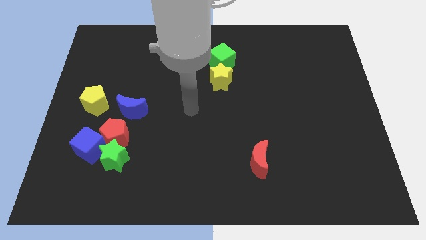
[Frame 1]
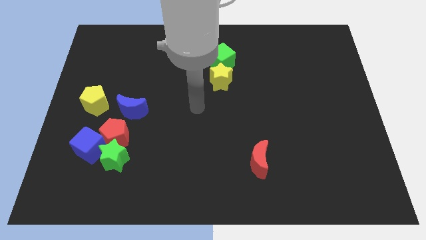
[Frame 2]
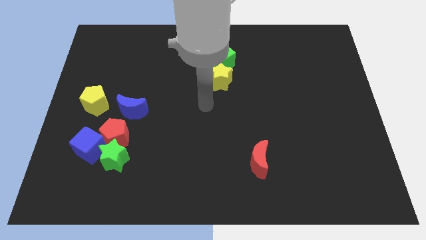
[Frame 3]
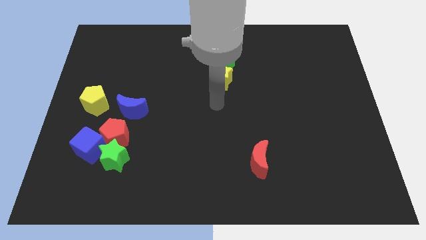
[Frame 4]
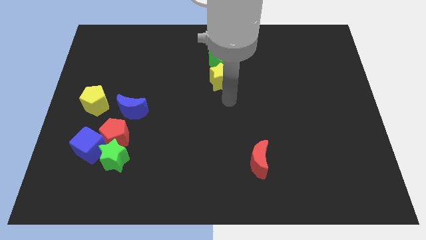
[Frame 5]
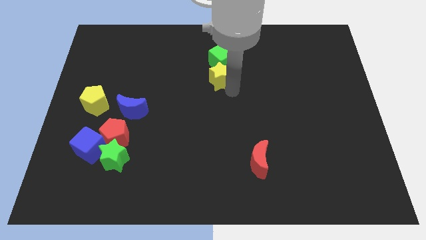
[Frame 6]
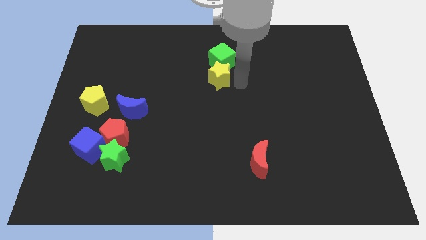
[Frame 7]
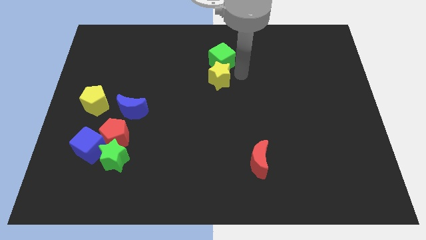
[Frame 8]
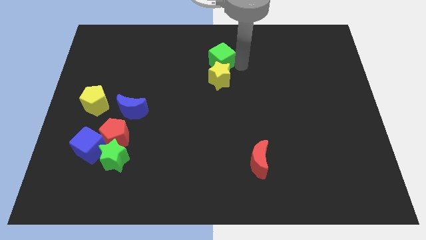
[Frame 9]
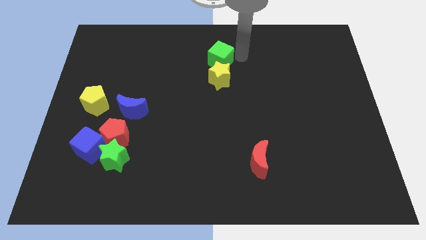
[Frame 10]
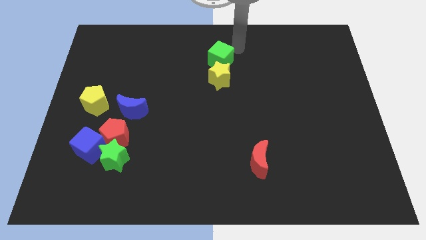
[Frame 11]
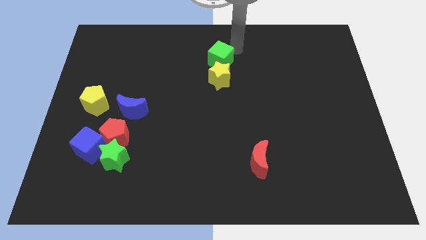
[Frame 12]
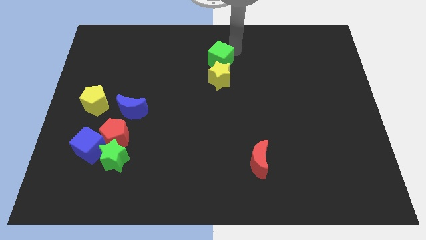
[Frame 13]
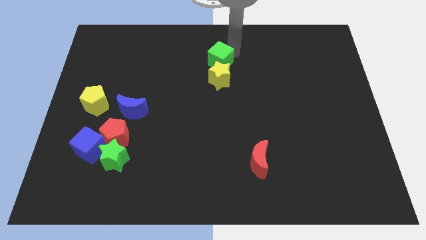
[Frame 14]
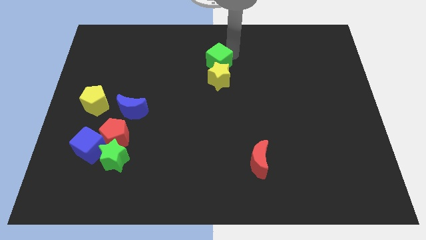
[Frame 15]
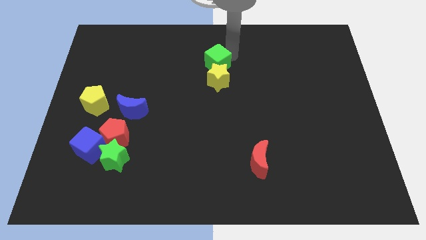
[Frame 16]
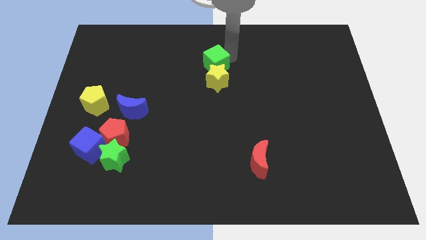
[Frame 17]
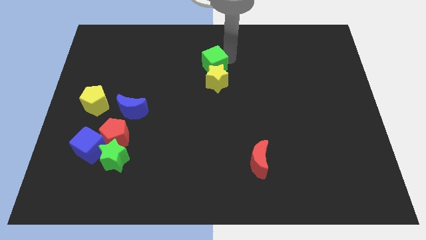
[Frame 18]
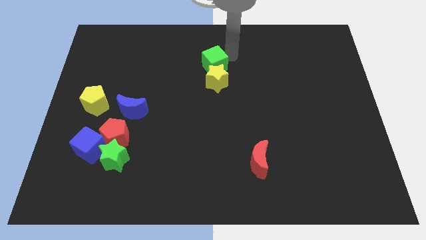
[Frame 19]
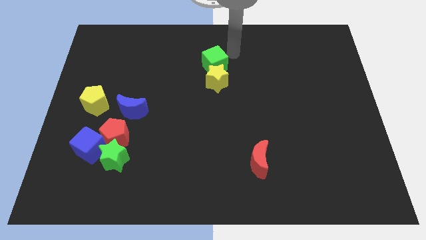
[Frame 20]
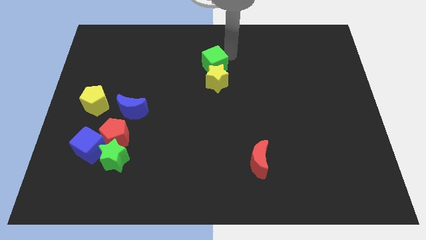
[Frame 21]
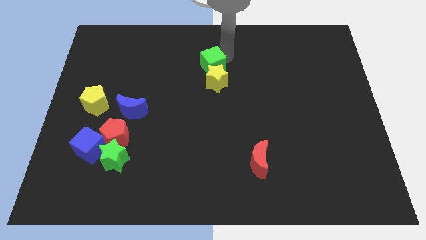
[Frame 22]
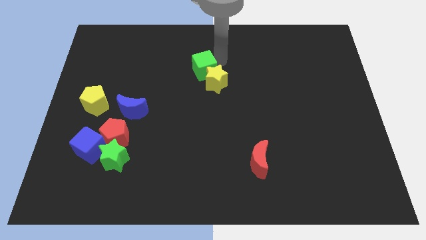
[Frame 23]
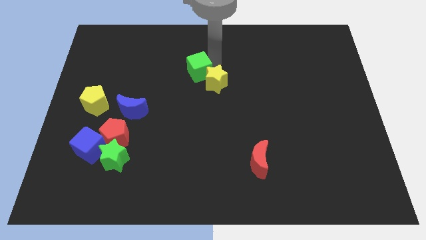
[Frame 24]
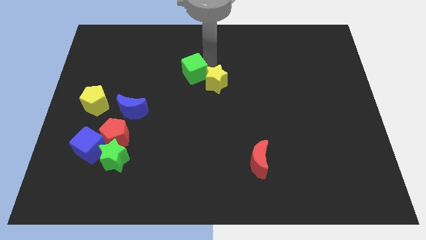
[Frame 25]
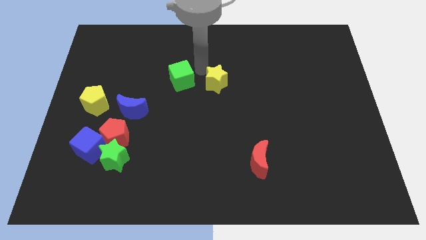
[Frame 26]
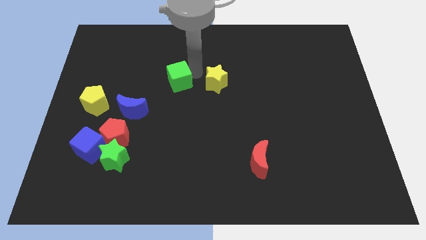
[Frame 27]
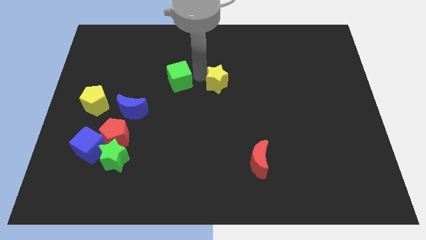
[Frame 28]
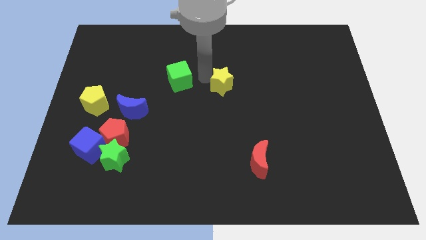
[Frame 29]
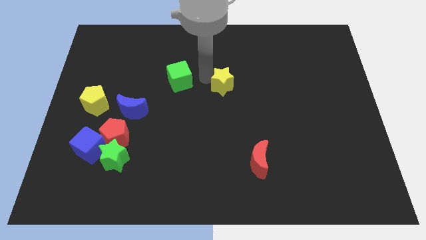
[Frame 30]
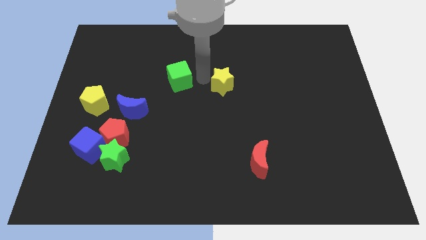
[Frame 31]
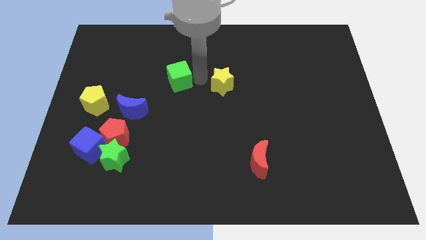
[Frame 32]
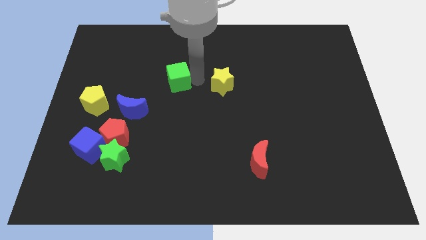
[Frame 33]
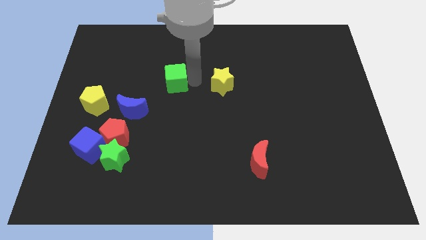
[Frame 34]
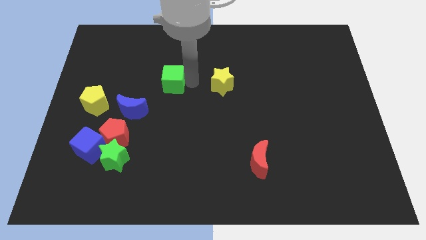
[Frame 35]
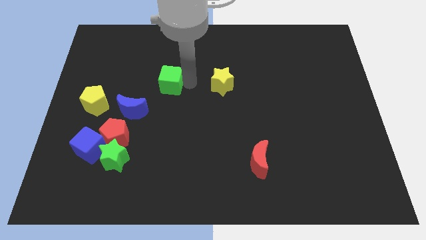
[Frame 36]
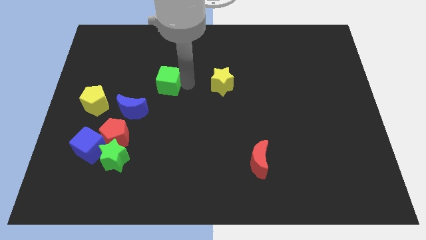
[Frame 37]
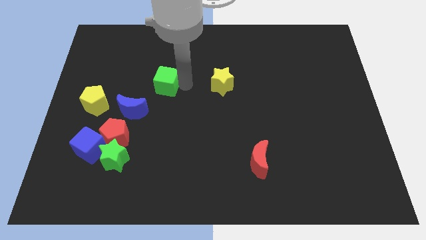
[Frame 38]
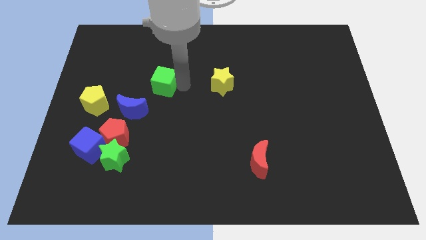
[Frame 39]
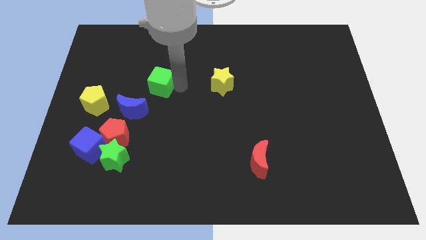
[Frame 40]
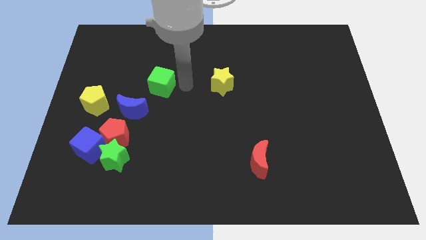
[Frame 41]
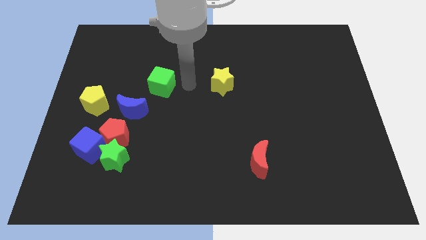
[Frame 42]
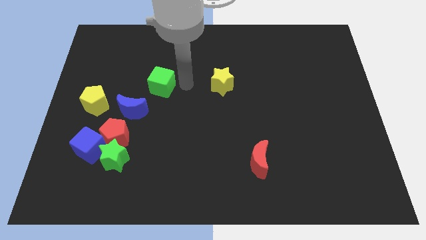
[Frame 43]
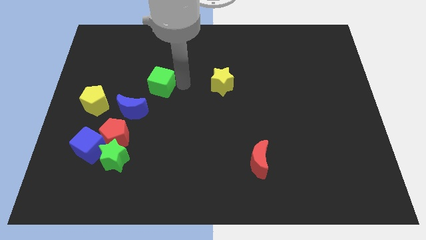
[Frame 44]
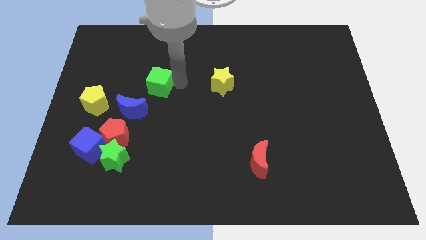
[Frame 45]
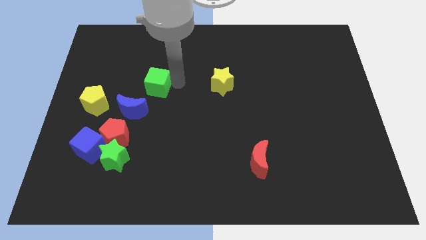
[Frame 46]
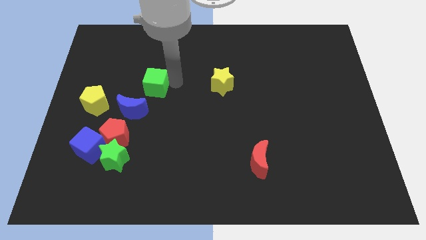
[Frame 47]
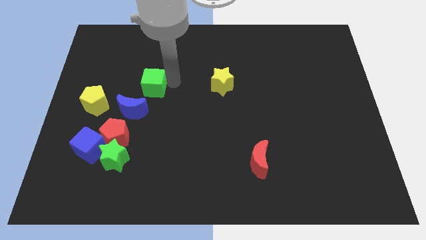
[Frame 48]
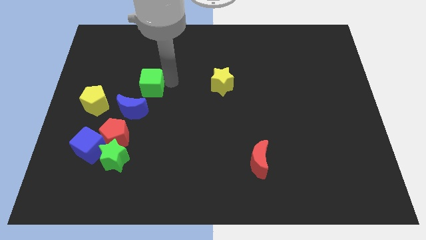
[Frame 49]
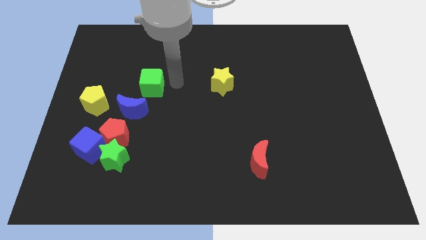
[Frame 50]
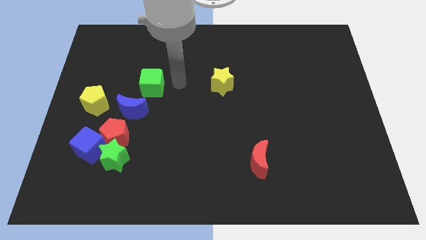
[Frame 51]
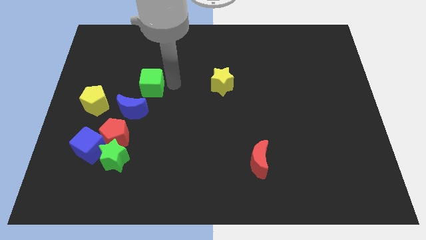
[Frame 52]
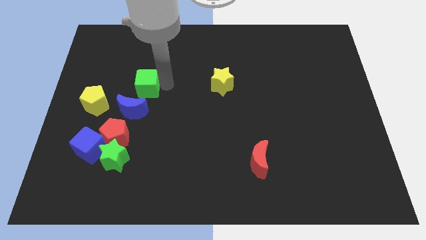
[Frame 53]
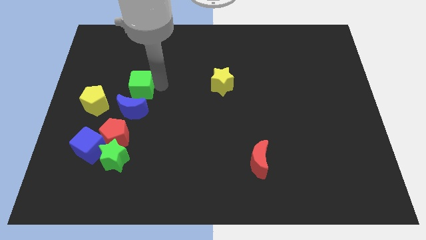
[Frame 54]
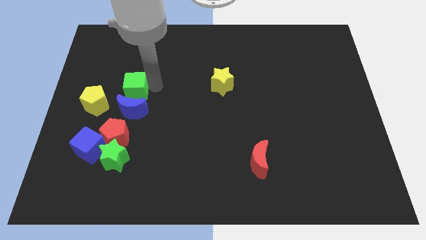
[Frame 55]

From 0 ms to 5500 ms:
move the green cube to the top left side of the blue moon

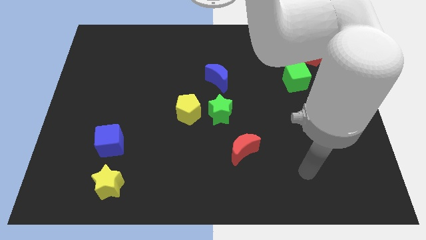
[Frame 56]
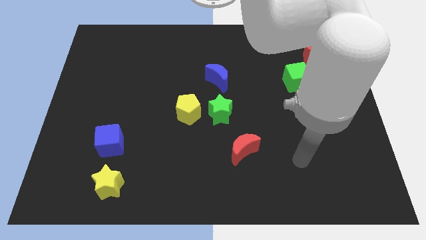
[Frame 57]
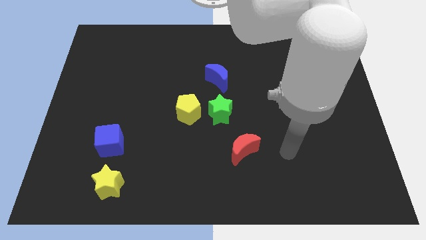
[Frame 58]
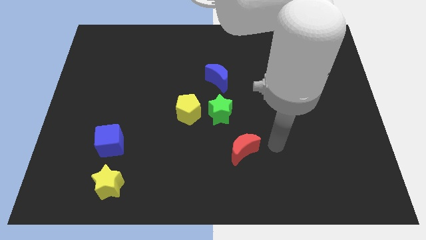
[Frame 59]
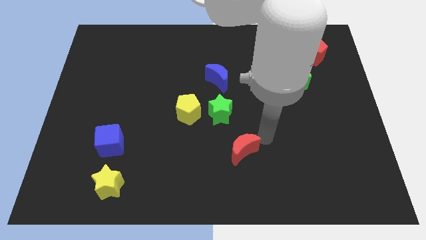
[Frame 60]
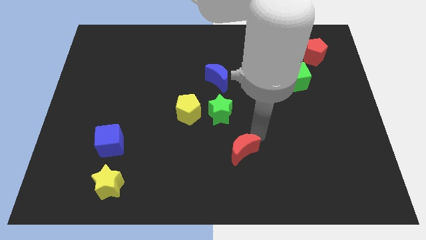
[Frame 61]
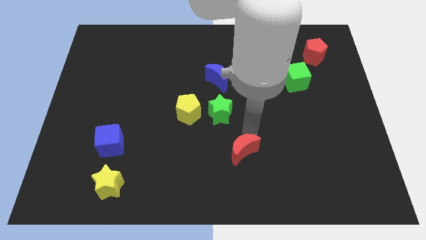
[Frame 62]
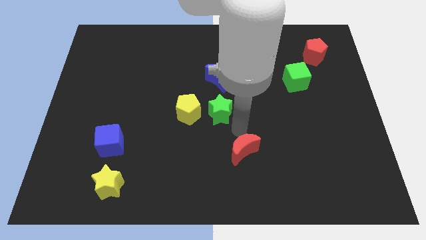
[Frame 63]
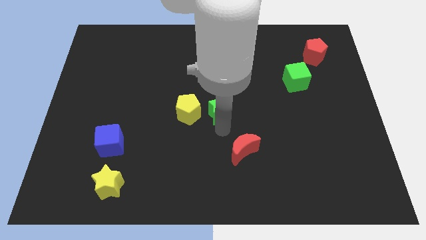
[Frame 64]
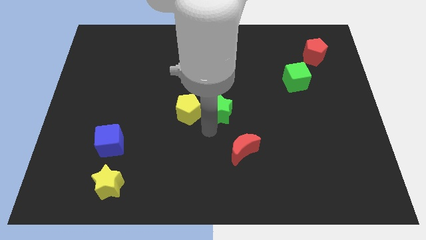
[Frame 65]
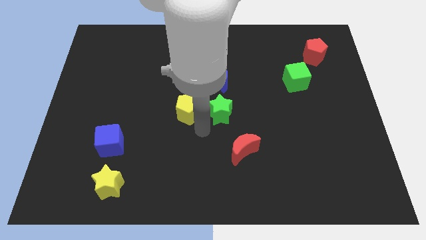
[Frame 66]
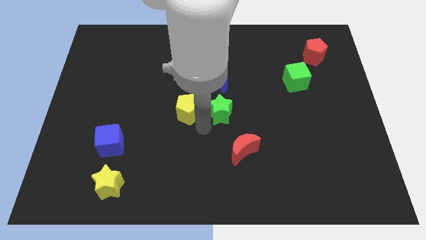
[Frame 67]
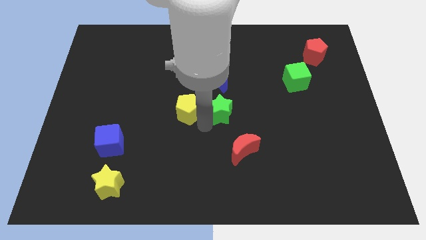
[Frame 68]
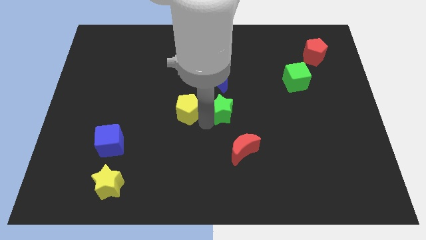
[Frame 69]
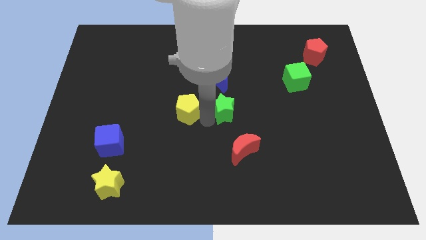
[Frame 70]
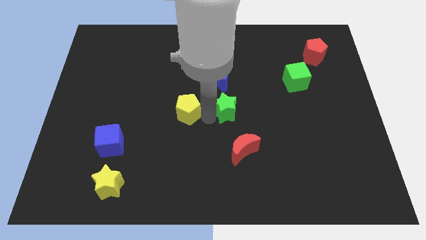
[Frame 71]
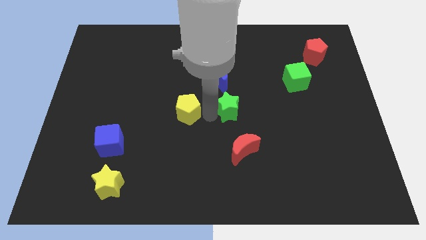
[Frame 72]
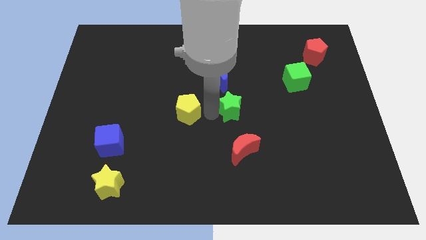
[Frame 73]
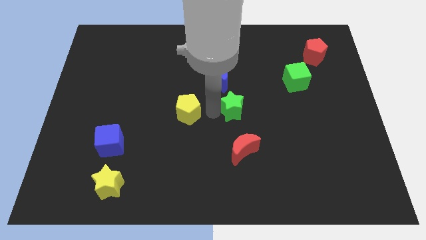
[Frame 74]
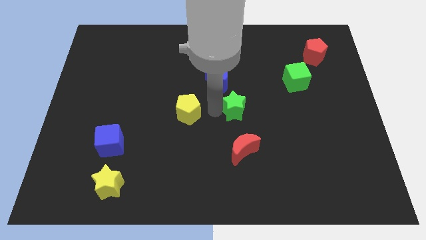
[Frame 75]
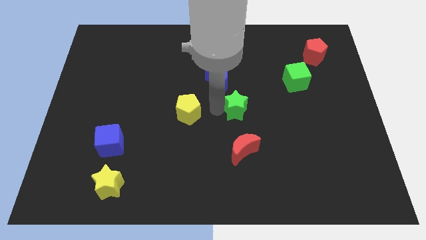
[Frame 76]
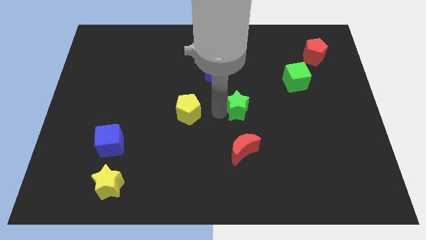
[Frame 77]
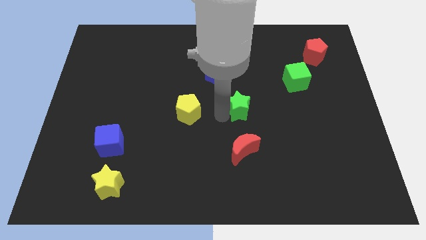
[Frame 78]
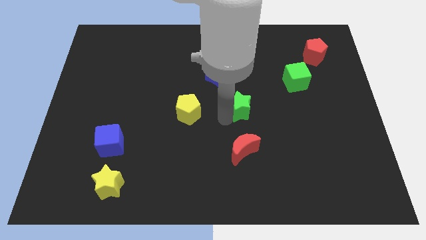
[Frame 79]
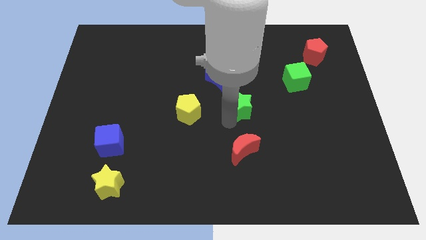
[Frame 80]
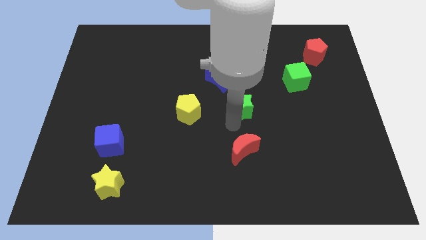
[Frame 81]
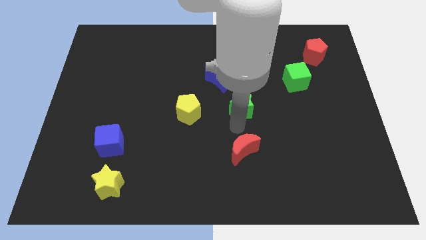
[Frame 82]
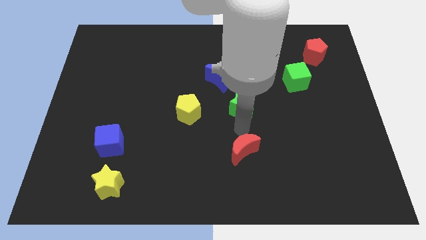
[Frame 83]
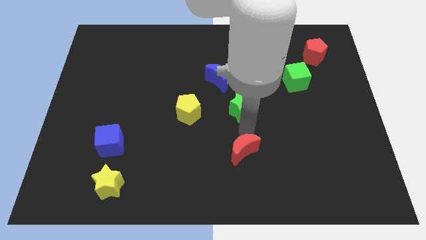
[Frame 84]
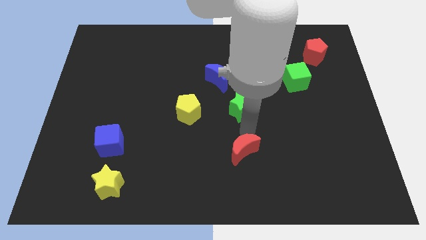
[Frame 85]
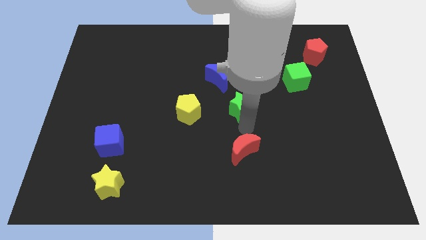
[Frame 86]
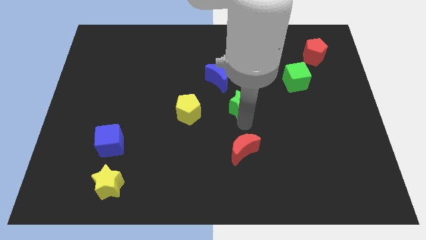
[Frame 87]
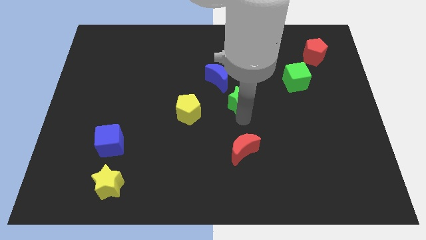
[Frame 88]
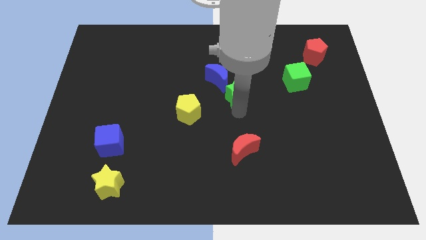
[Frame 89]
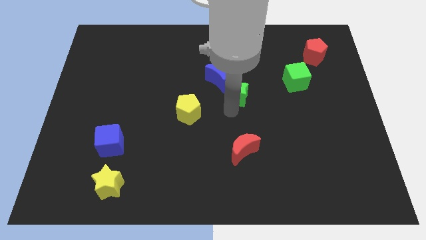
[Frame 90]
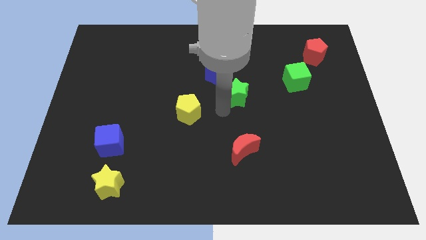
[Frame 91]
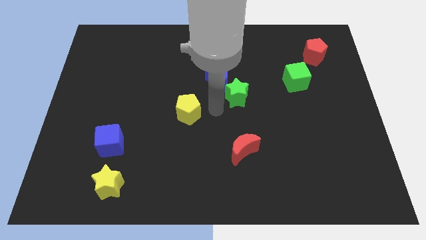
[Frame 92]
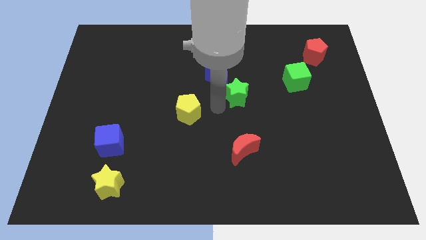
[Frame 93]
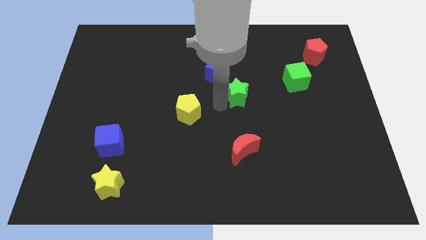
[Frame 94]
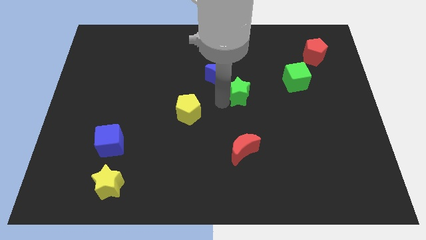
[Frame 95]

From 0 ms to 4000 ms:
slide the green star to the right of the blue moon
